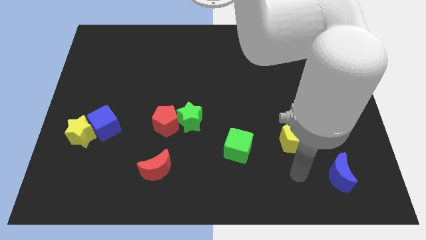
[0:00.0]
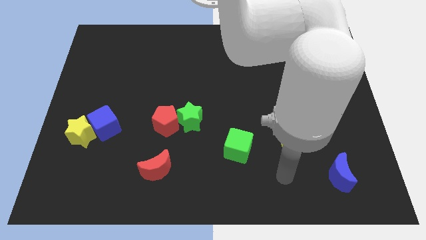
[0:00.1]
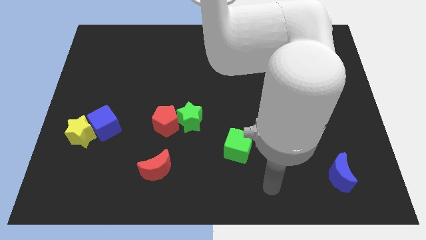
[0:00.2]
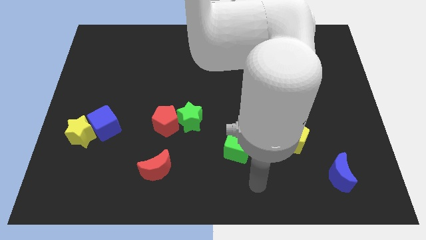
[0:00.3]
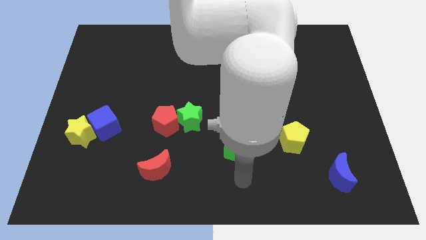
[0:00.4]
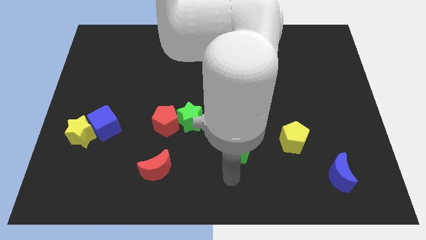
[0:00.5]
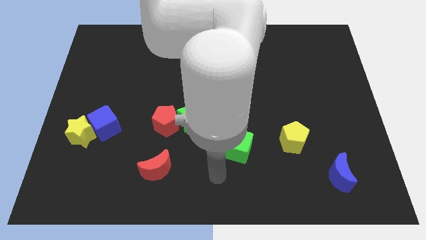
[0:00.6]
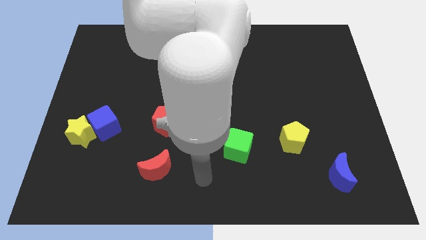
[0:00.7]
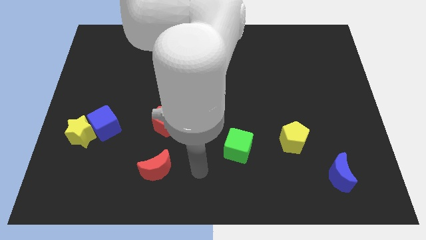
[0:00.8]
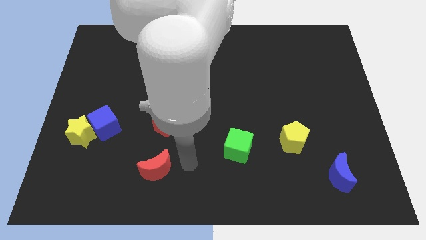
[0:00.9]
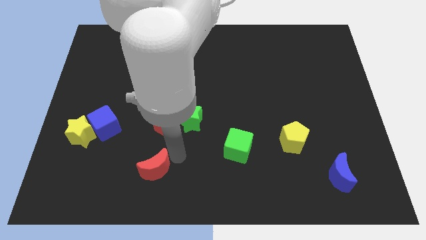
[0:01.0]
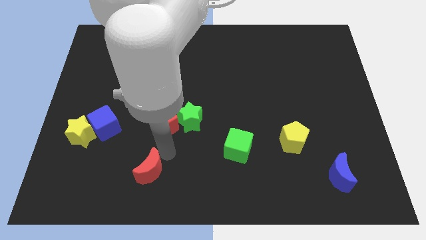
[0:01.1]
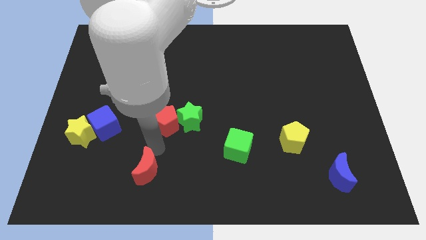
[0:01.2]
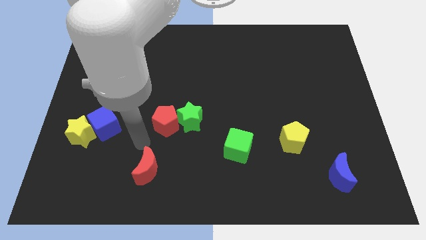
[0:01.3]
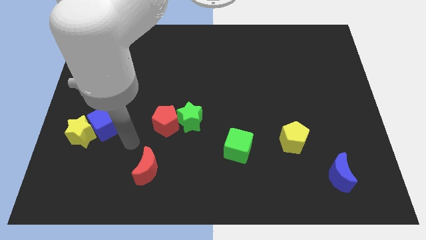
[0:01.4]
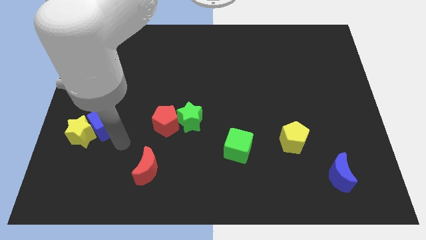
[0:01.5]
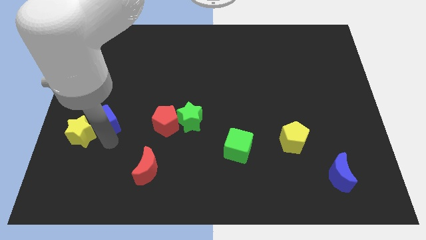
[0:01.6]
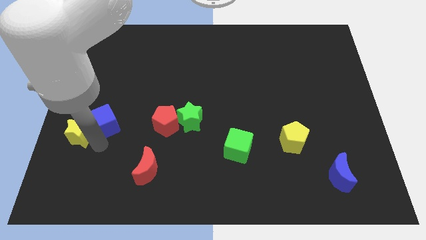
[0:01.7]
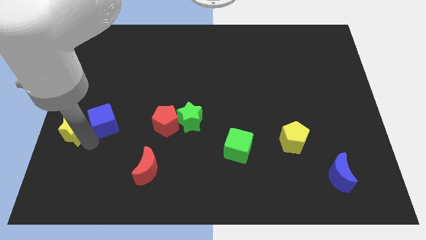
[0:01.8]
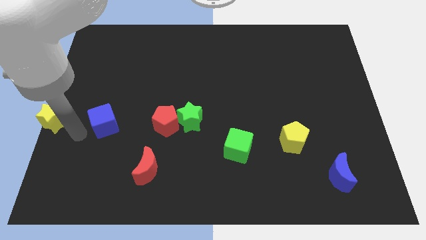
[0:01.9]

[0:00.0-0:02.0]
pull the blue cube apart from the yellow star

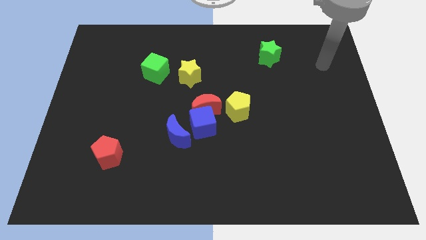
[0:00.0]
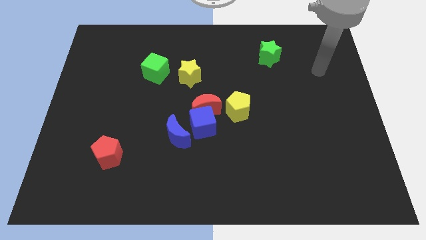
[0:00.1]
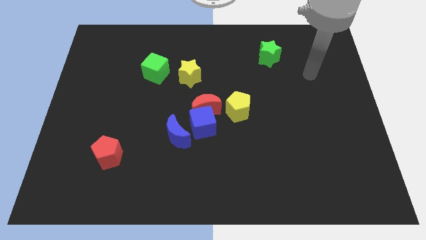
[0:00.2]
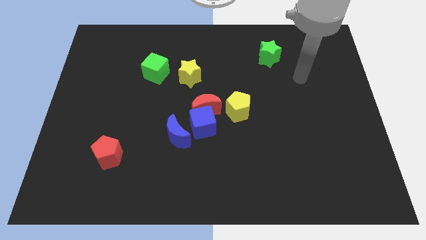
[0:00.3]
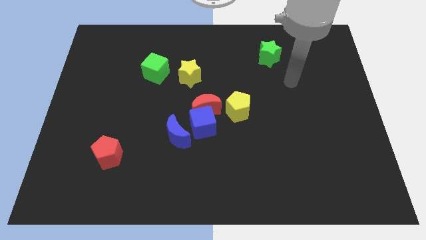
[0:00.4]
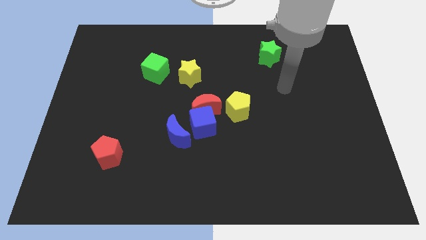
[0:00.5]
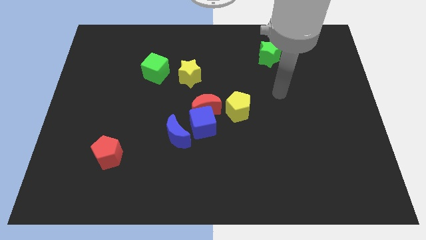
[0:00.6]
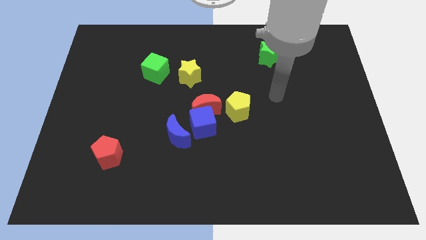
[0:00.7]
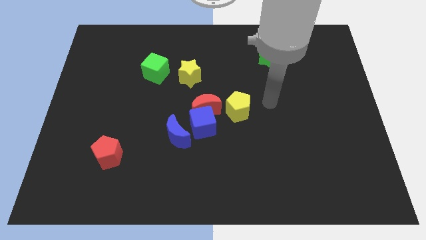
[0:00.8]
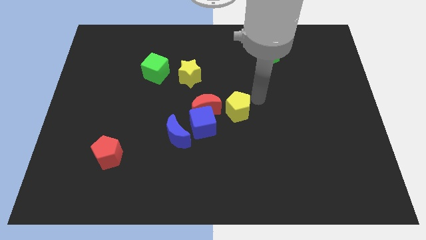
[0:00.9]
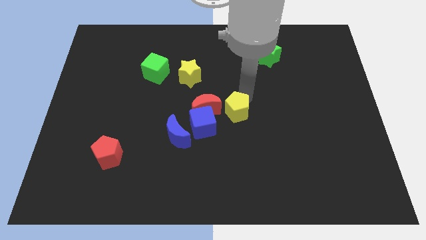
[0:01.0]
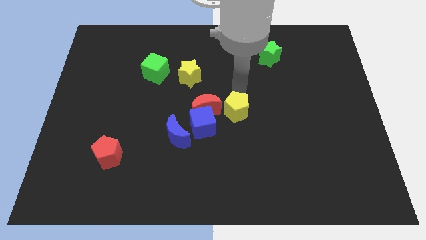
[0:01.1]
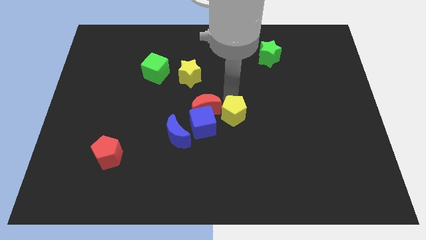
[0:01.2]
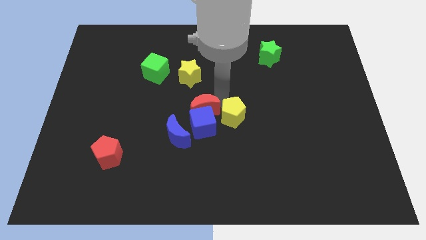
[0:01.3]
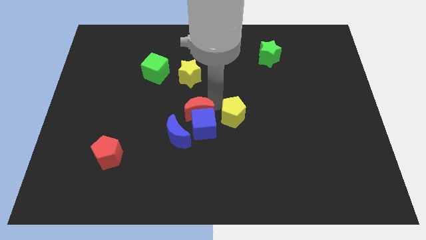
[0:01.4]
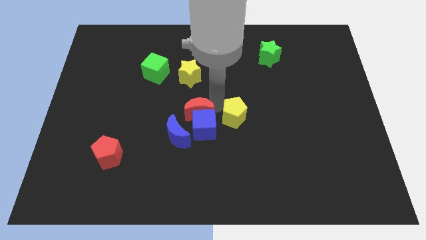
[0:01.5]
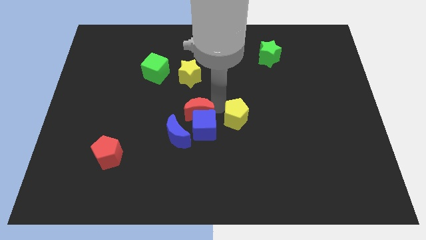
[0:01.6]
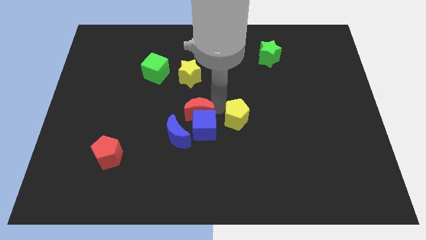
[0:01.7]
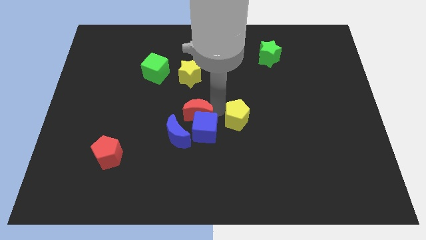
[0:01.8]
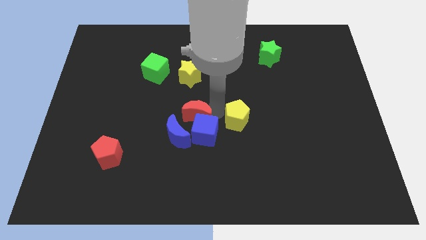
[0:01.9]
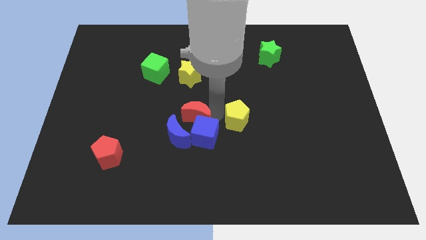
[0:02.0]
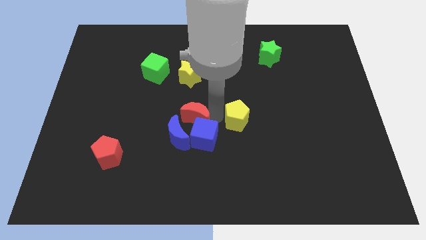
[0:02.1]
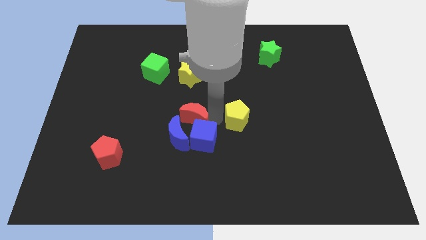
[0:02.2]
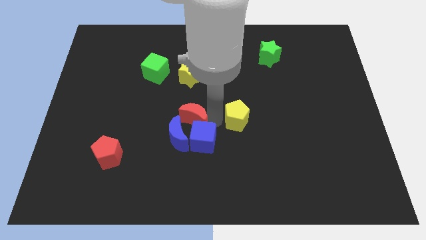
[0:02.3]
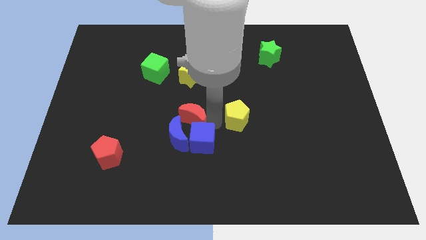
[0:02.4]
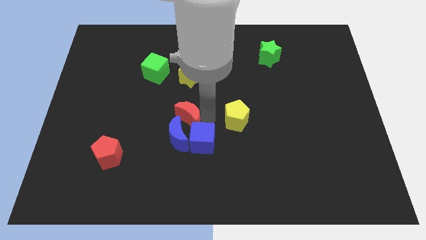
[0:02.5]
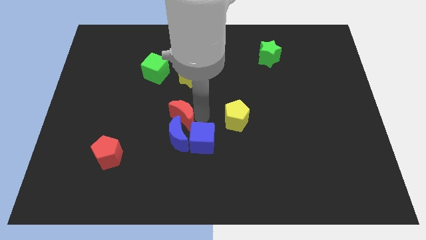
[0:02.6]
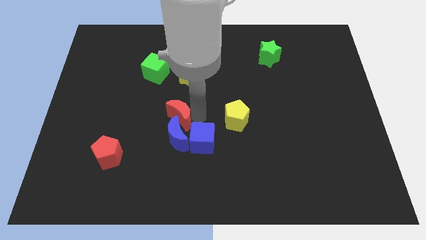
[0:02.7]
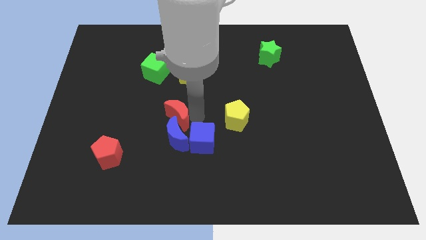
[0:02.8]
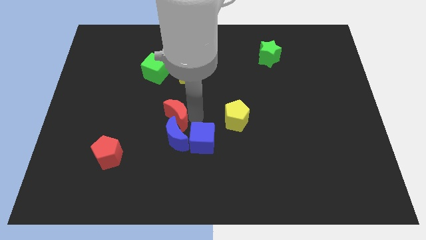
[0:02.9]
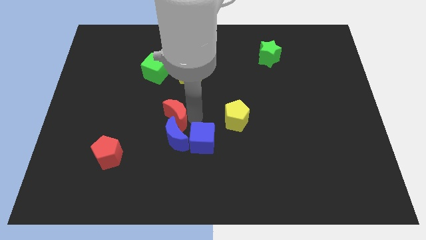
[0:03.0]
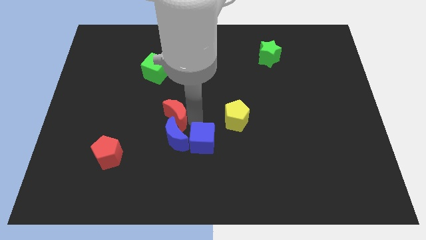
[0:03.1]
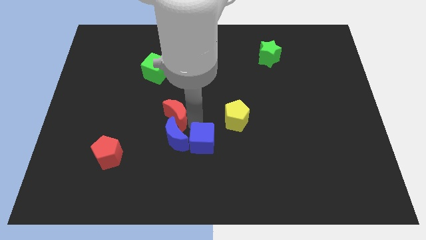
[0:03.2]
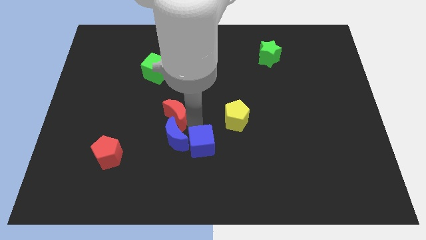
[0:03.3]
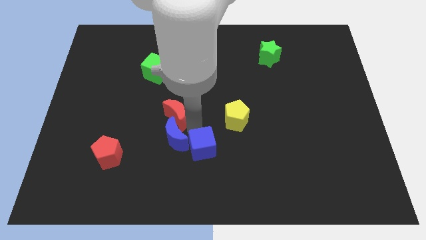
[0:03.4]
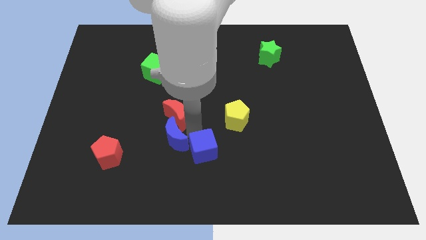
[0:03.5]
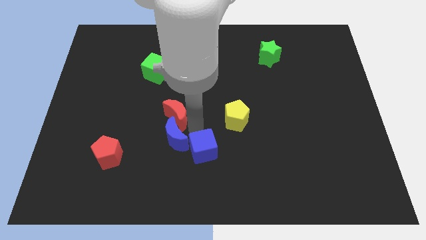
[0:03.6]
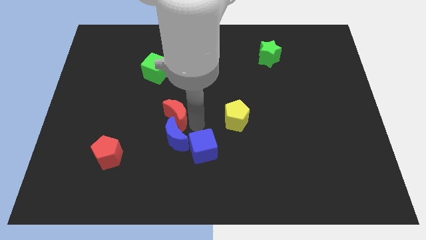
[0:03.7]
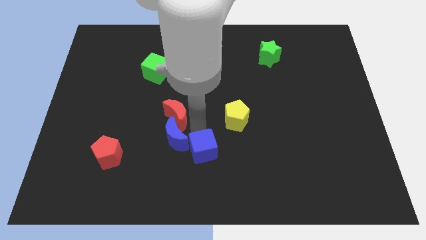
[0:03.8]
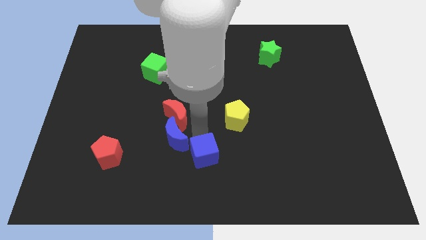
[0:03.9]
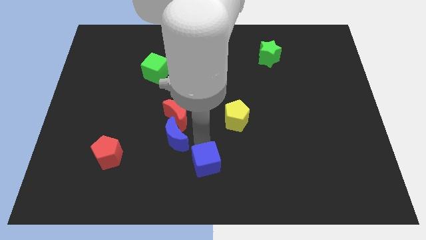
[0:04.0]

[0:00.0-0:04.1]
pull the blue cube apart from the red moon, blue moon, and yellow pentagon

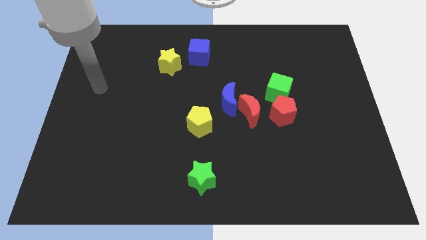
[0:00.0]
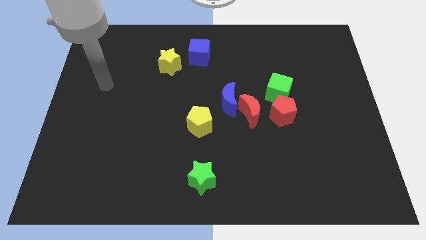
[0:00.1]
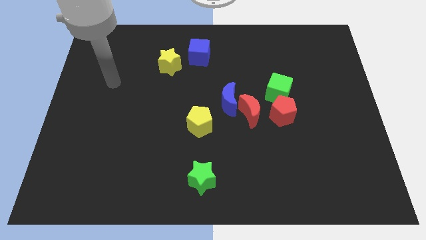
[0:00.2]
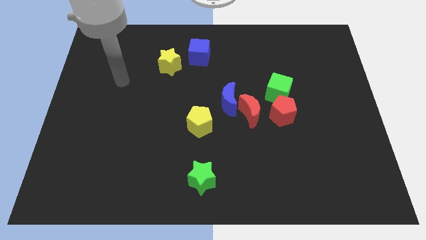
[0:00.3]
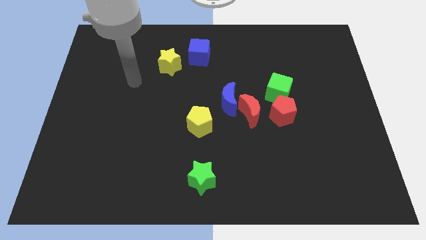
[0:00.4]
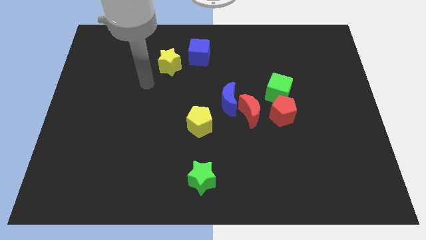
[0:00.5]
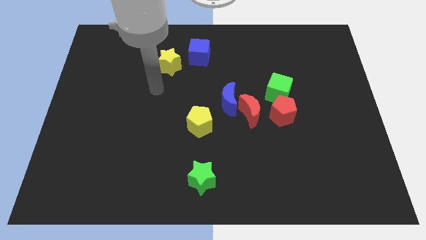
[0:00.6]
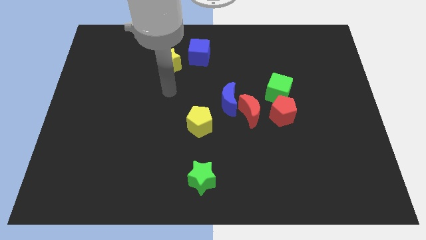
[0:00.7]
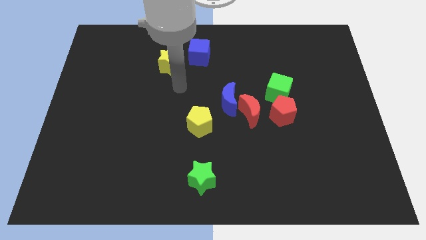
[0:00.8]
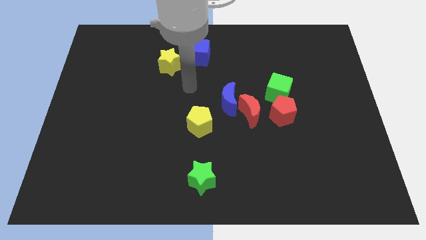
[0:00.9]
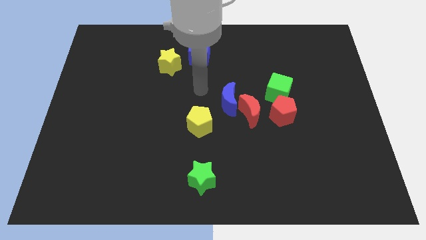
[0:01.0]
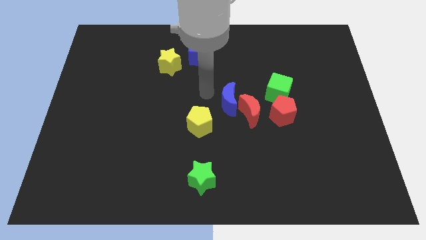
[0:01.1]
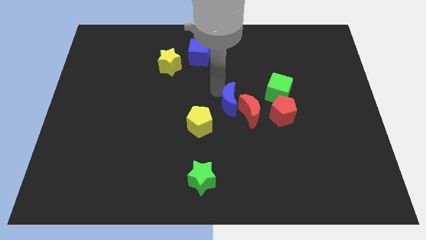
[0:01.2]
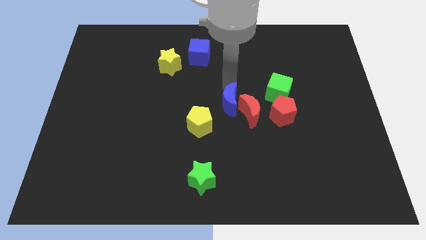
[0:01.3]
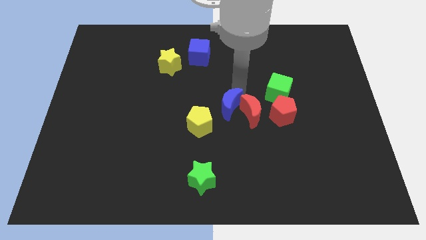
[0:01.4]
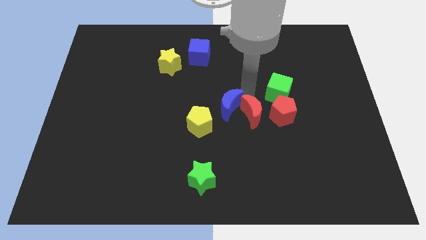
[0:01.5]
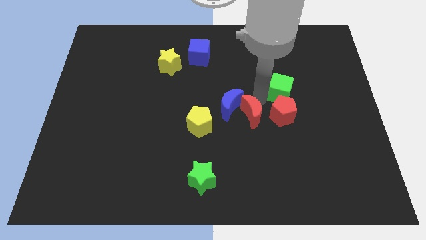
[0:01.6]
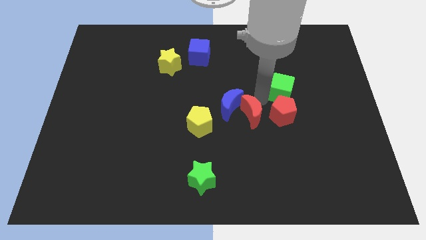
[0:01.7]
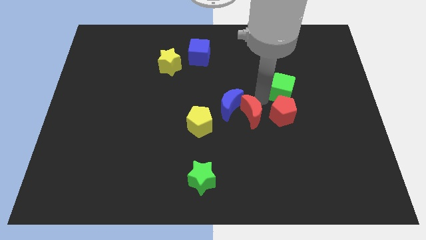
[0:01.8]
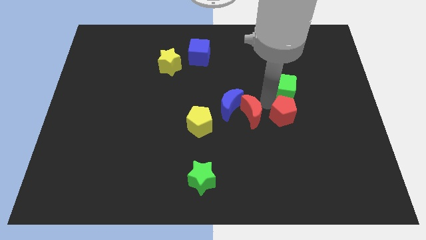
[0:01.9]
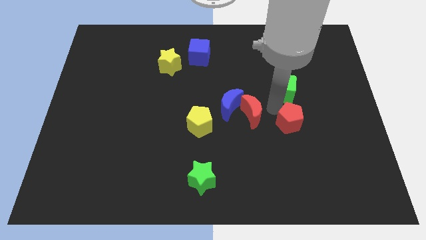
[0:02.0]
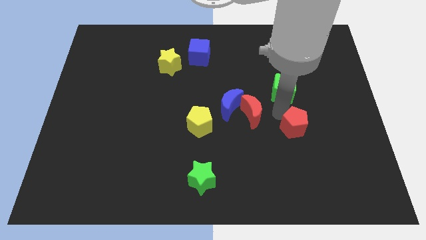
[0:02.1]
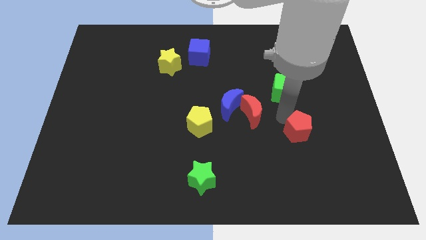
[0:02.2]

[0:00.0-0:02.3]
pull the red pentagon apart from the green cube and red moon

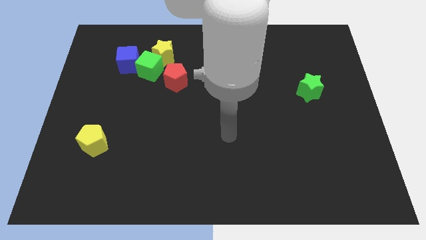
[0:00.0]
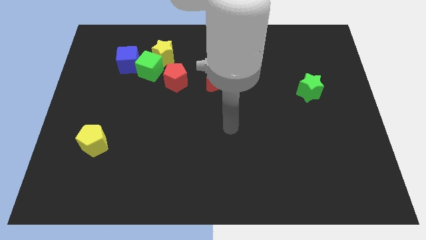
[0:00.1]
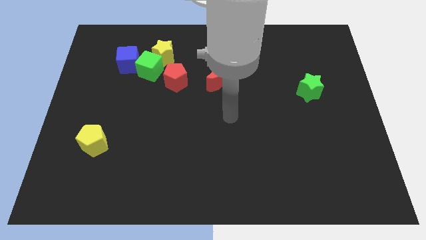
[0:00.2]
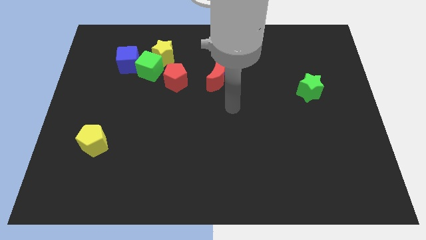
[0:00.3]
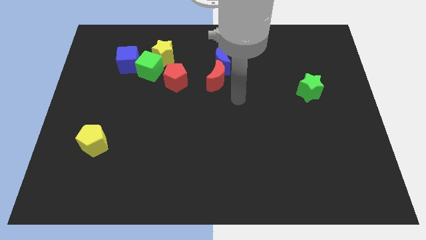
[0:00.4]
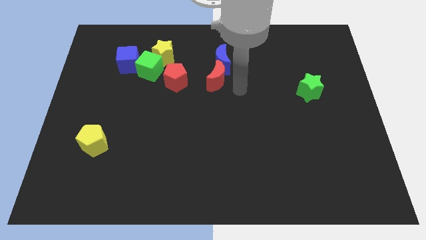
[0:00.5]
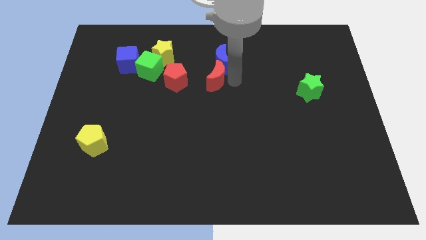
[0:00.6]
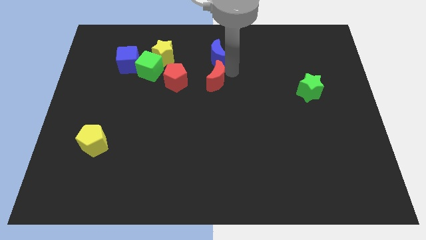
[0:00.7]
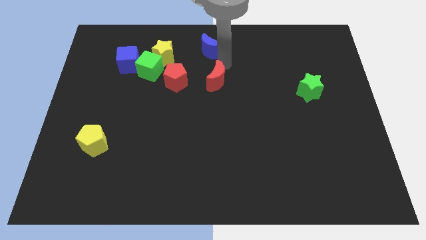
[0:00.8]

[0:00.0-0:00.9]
move the red moon away from the blue moon

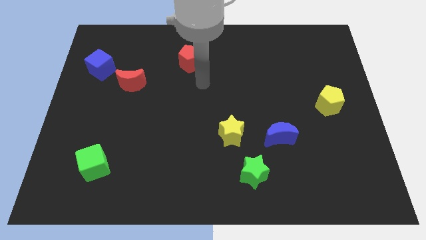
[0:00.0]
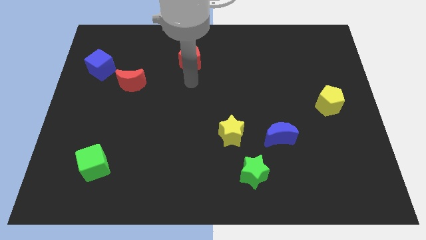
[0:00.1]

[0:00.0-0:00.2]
pull the red moon apart from the blue cube
